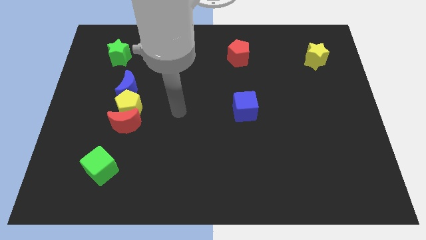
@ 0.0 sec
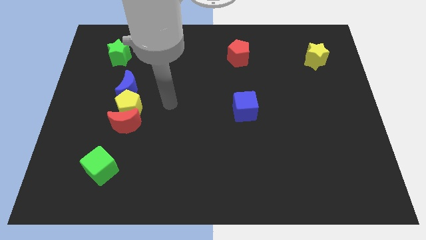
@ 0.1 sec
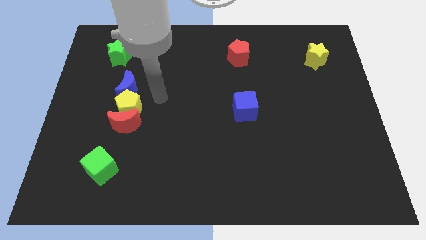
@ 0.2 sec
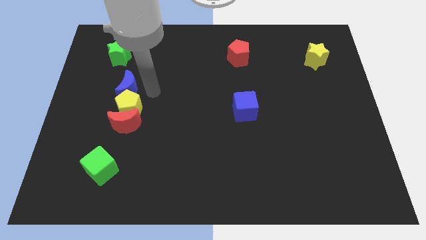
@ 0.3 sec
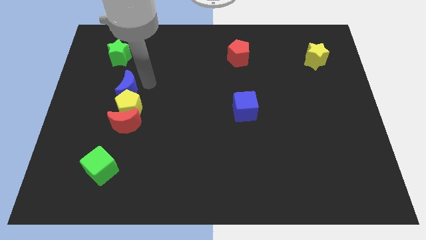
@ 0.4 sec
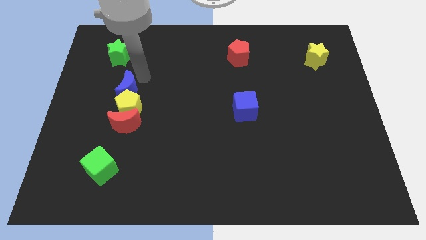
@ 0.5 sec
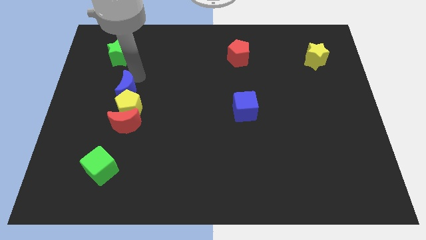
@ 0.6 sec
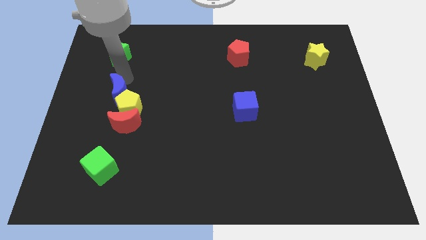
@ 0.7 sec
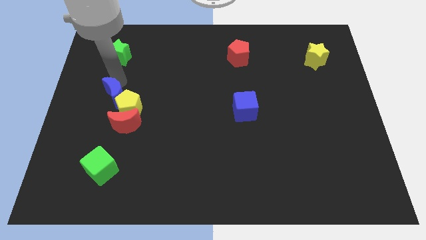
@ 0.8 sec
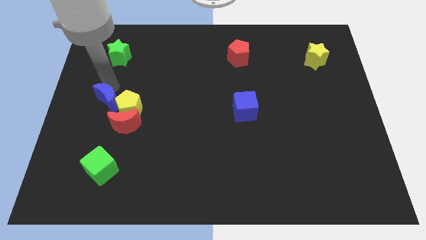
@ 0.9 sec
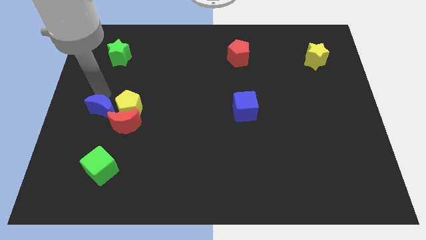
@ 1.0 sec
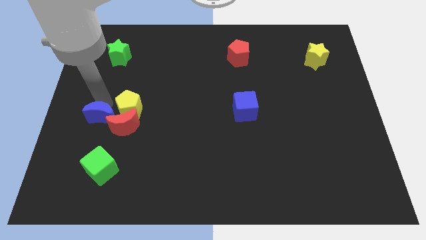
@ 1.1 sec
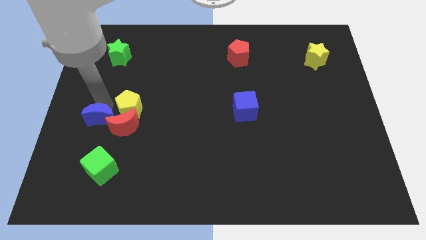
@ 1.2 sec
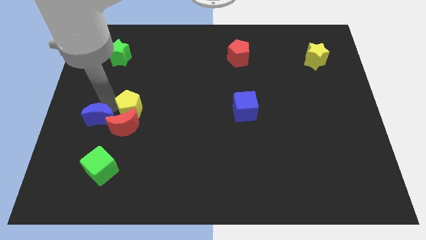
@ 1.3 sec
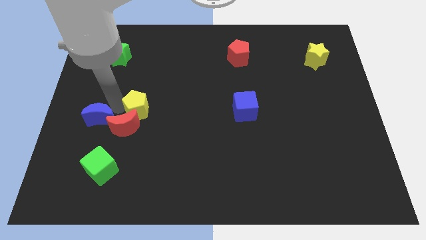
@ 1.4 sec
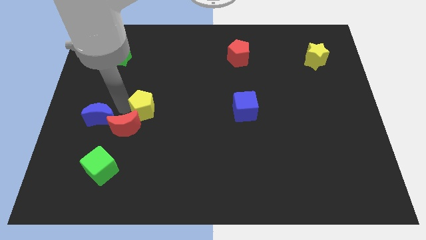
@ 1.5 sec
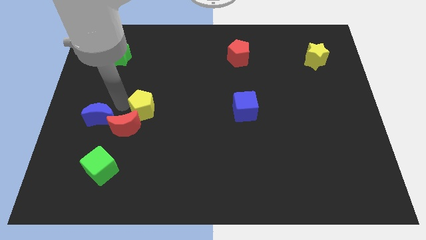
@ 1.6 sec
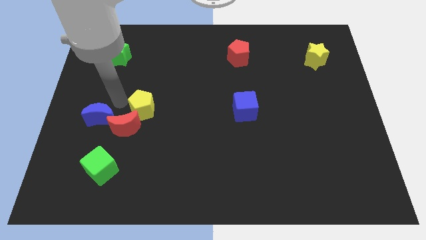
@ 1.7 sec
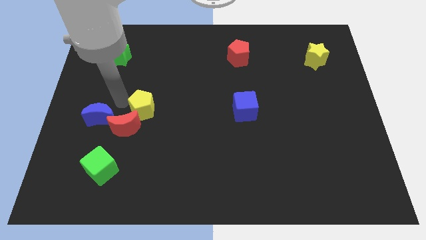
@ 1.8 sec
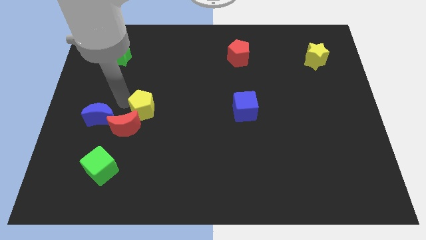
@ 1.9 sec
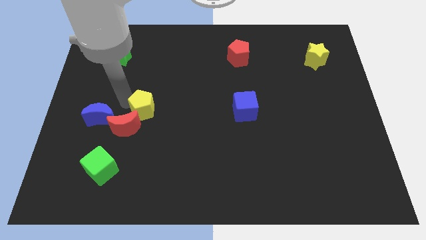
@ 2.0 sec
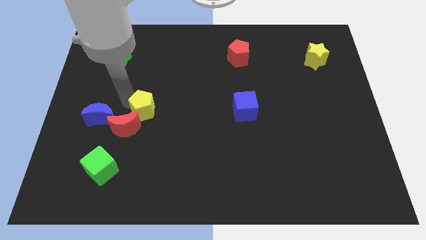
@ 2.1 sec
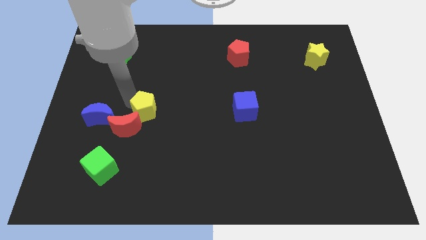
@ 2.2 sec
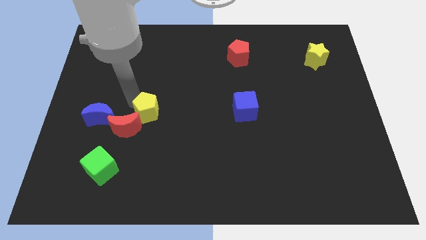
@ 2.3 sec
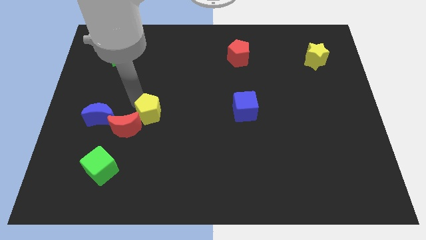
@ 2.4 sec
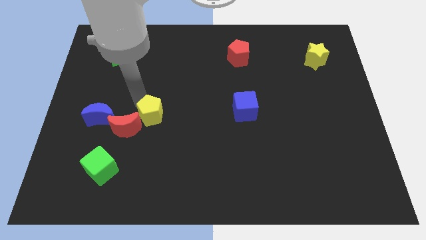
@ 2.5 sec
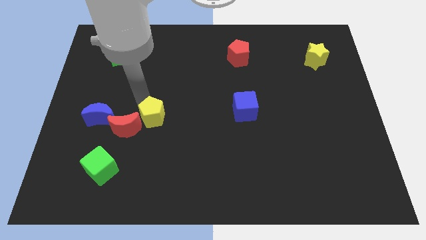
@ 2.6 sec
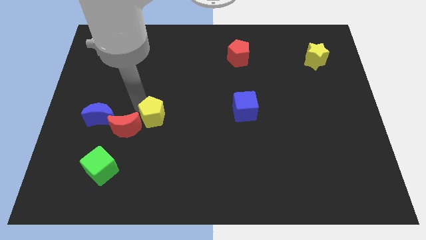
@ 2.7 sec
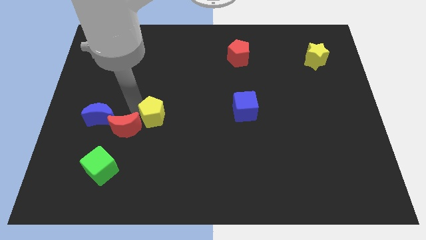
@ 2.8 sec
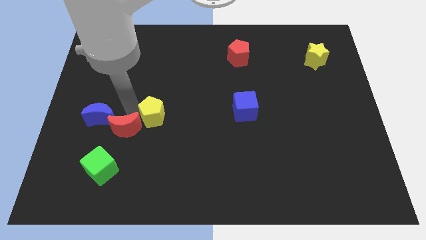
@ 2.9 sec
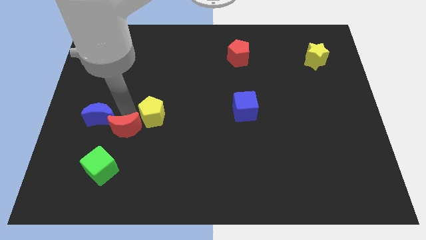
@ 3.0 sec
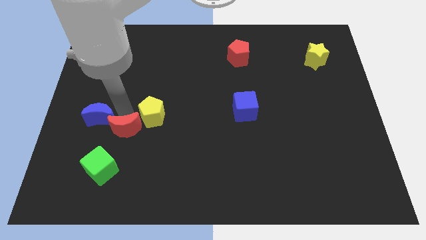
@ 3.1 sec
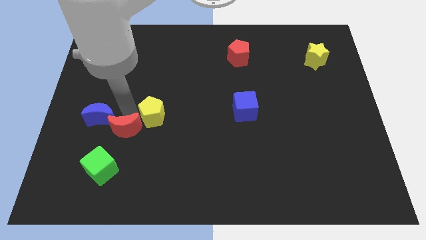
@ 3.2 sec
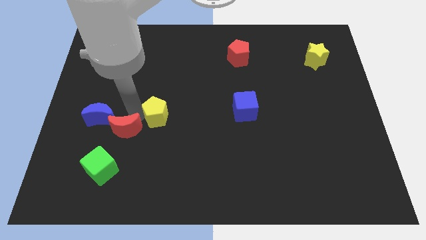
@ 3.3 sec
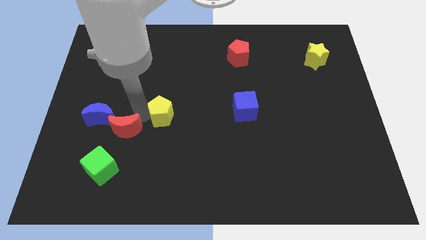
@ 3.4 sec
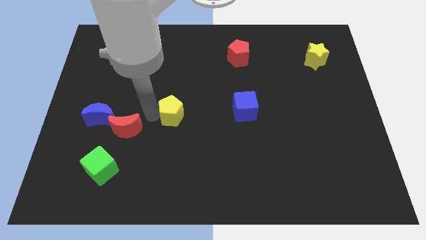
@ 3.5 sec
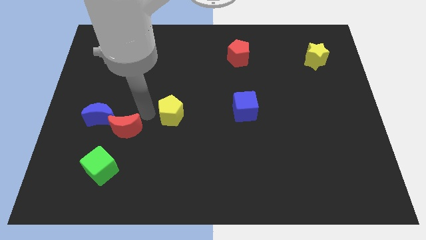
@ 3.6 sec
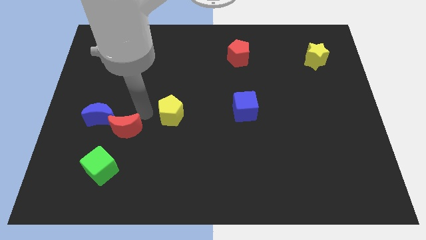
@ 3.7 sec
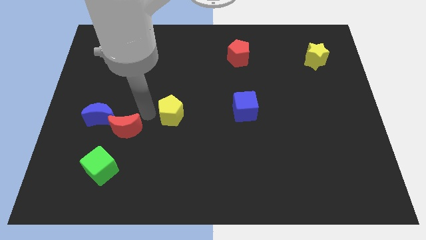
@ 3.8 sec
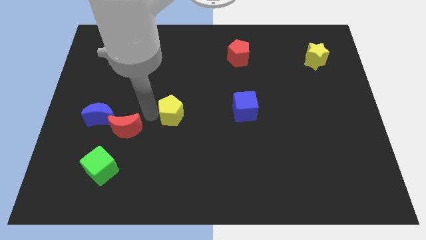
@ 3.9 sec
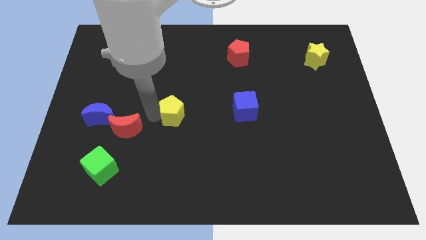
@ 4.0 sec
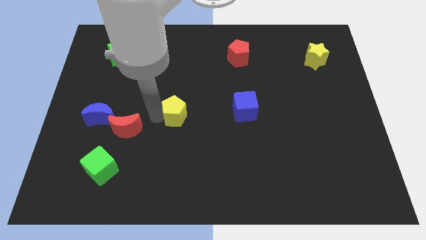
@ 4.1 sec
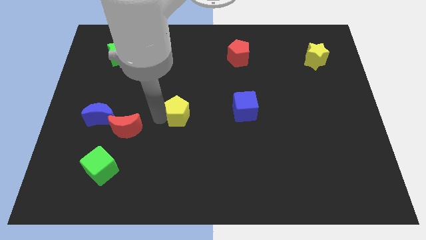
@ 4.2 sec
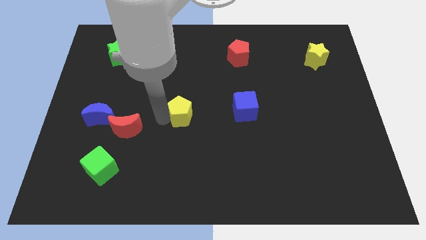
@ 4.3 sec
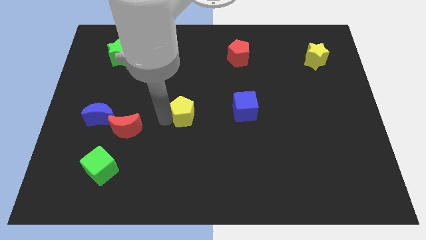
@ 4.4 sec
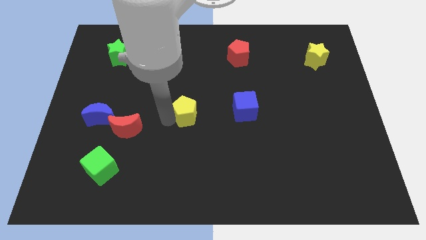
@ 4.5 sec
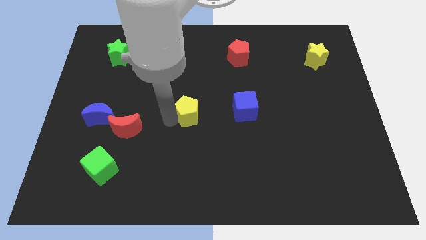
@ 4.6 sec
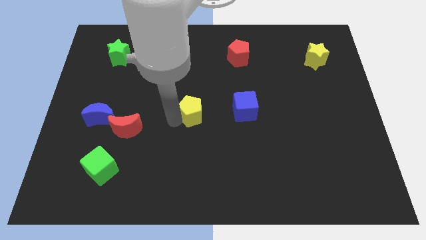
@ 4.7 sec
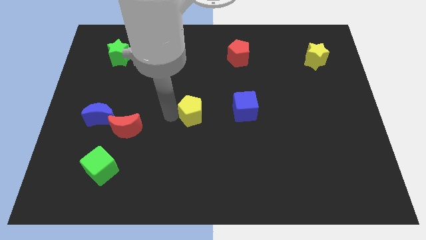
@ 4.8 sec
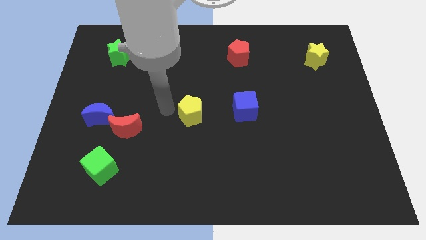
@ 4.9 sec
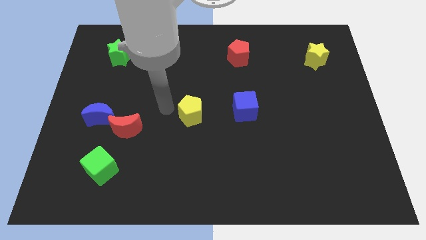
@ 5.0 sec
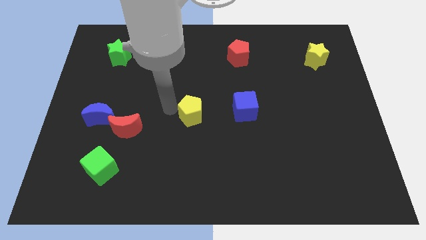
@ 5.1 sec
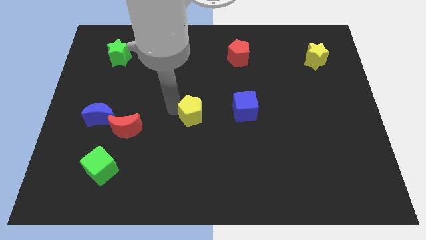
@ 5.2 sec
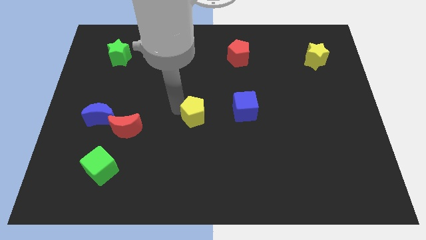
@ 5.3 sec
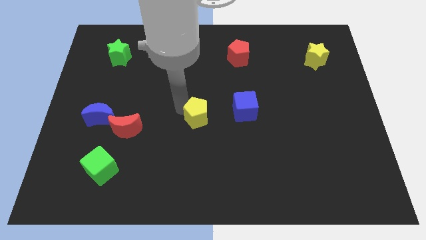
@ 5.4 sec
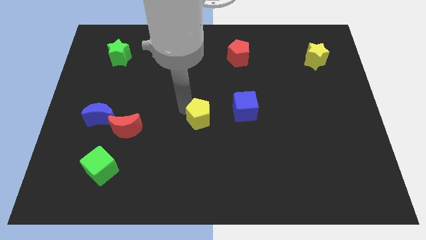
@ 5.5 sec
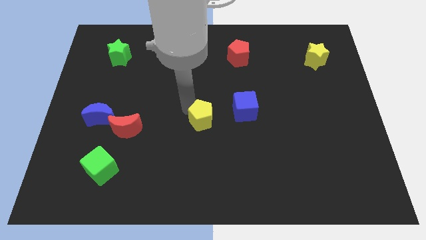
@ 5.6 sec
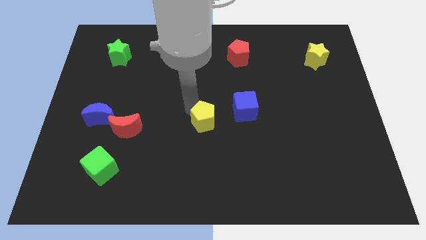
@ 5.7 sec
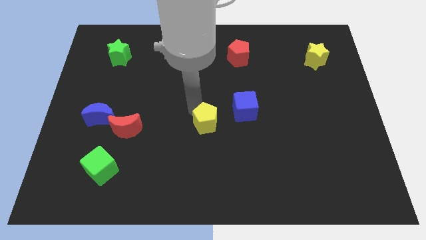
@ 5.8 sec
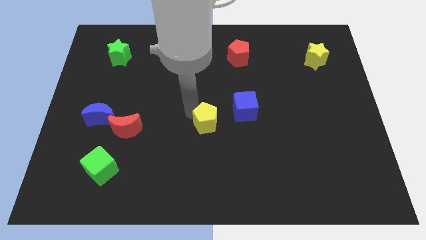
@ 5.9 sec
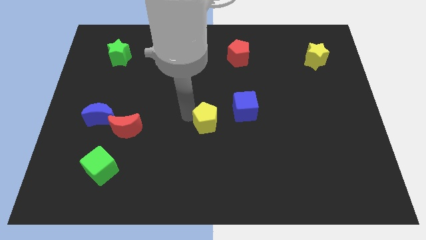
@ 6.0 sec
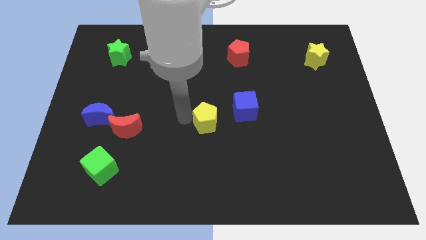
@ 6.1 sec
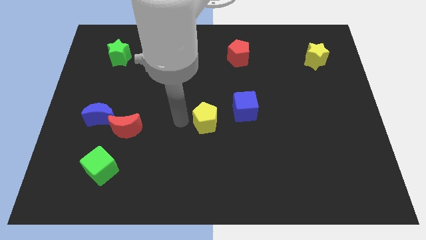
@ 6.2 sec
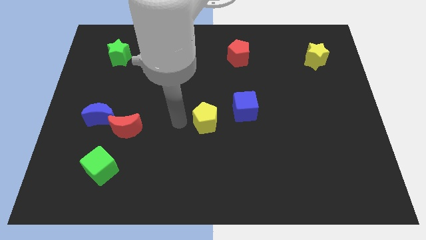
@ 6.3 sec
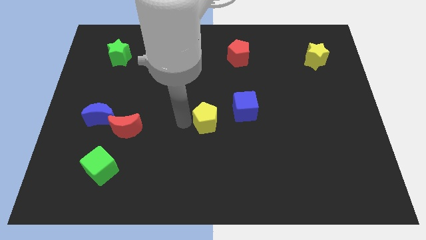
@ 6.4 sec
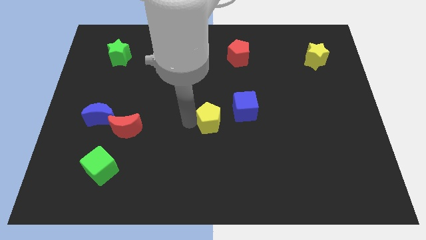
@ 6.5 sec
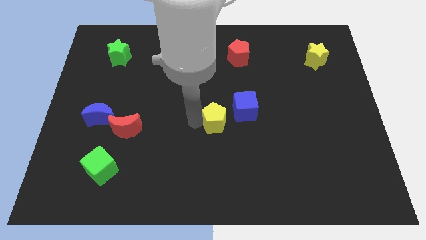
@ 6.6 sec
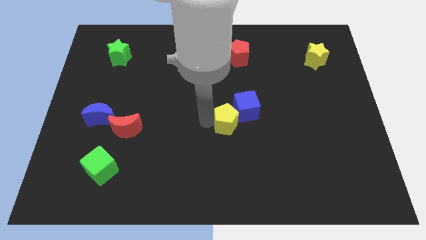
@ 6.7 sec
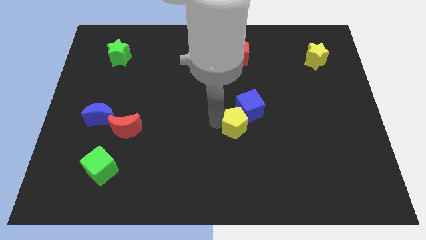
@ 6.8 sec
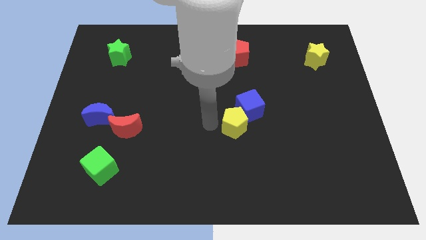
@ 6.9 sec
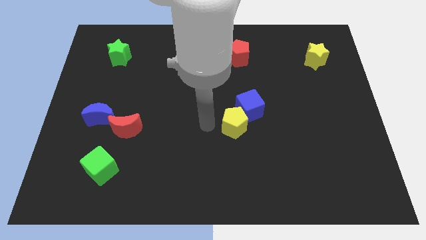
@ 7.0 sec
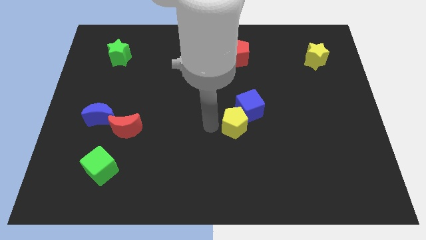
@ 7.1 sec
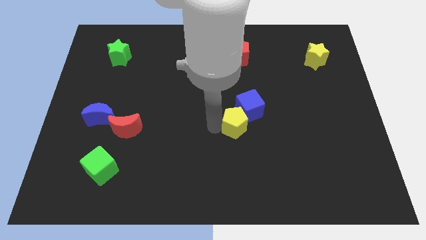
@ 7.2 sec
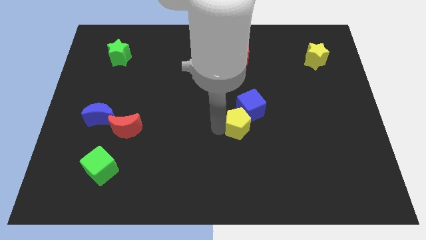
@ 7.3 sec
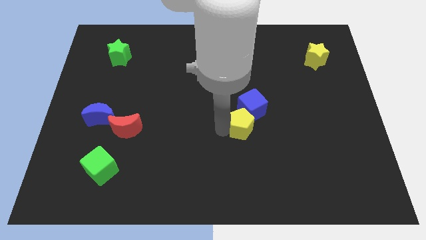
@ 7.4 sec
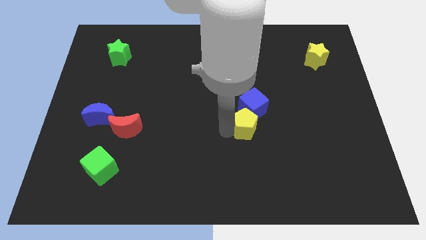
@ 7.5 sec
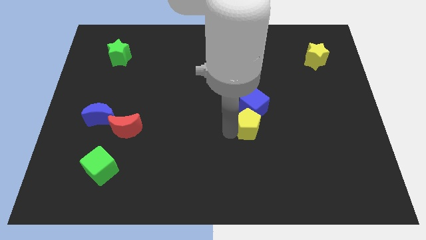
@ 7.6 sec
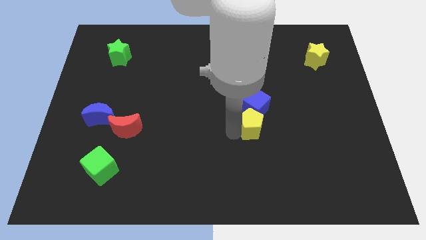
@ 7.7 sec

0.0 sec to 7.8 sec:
move the yellow pentagon to the bottom right of the blue cube
